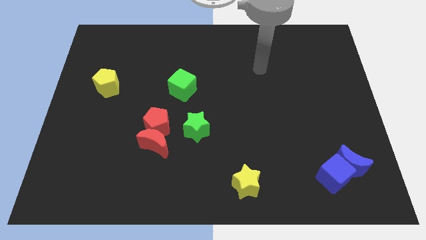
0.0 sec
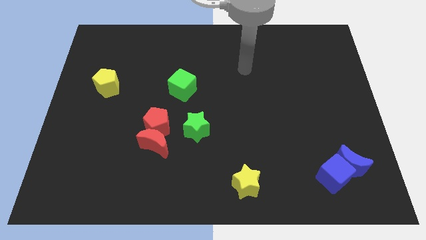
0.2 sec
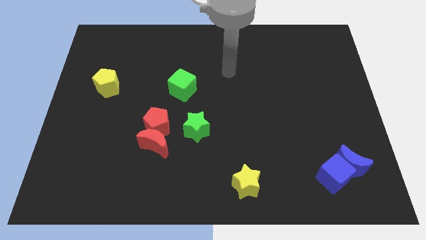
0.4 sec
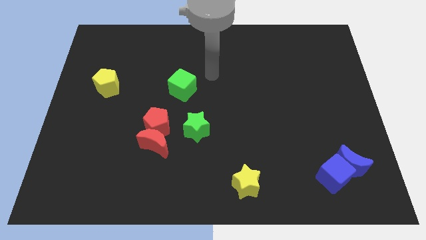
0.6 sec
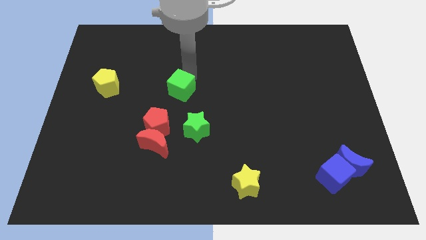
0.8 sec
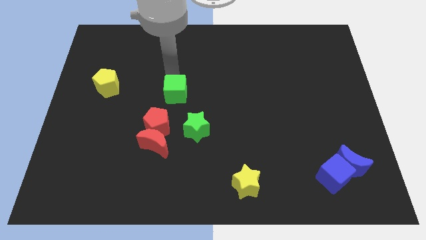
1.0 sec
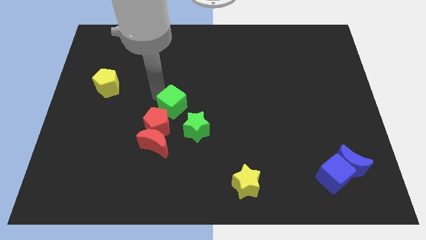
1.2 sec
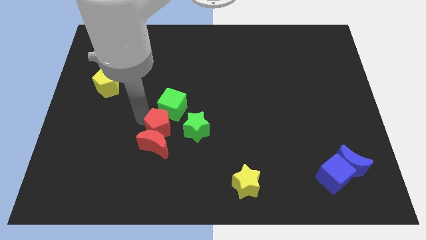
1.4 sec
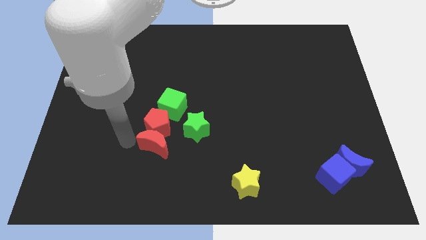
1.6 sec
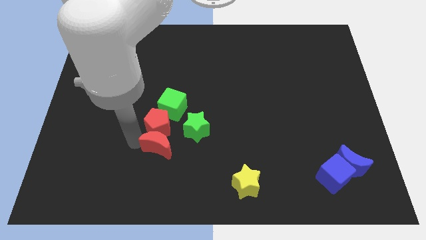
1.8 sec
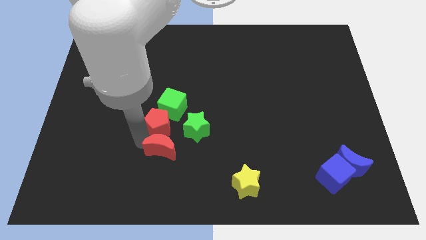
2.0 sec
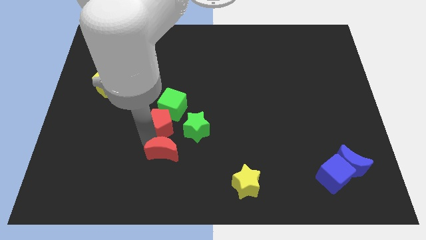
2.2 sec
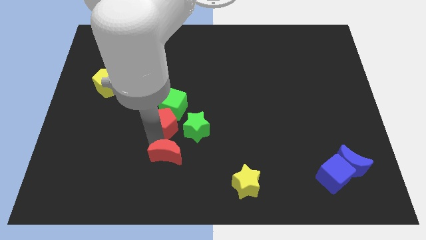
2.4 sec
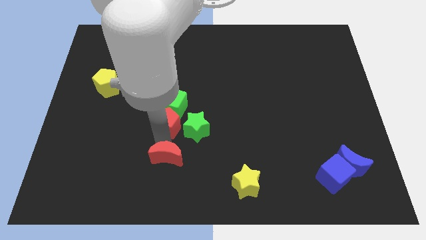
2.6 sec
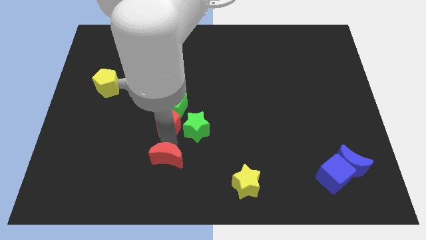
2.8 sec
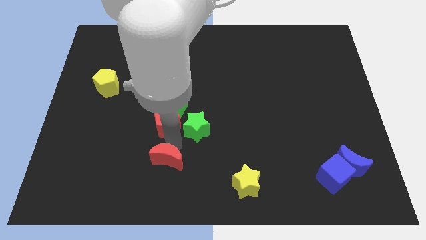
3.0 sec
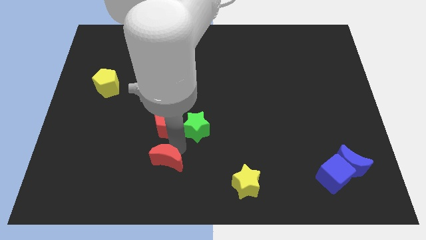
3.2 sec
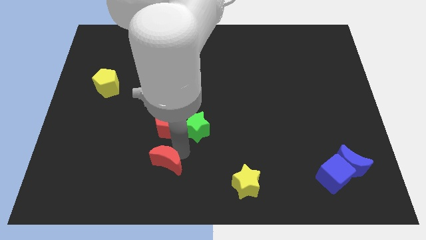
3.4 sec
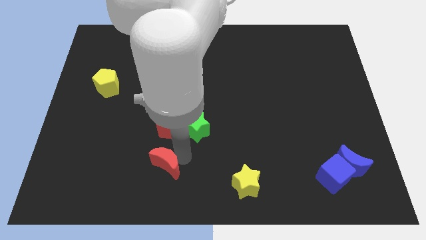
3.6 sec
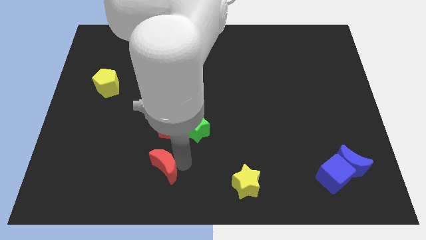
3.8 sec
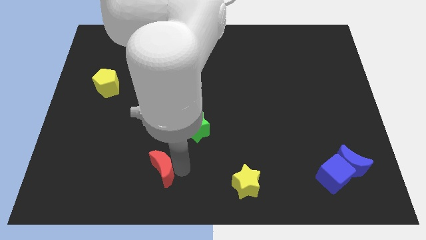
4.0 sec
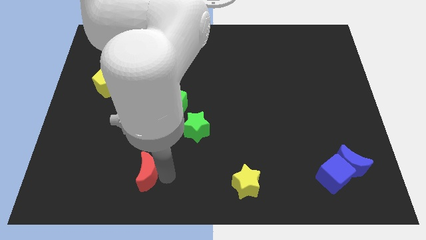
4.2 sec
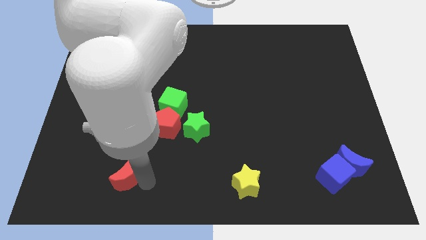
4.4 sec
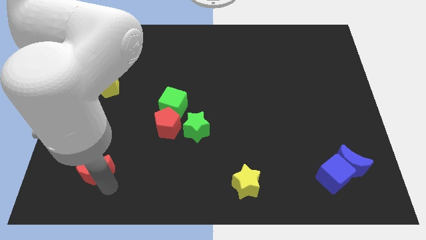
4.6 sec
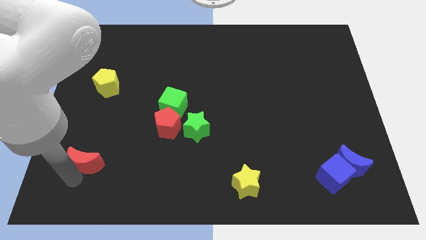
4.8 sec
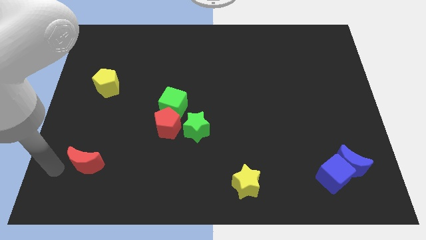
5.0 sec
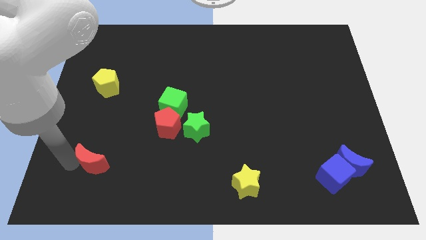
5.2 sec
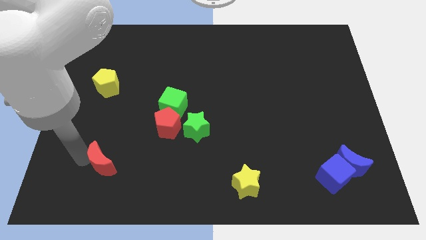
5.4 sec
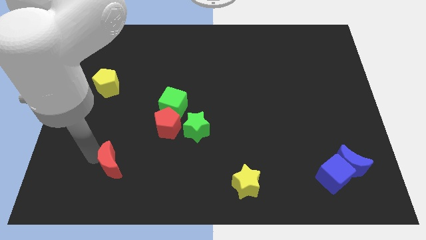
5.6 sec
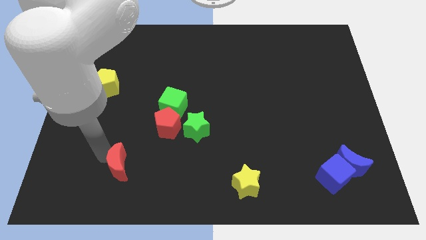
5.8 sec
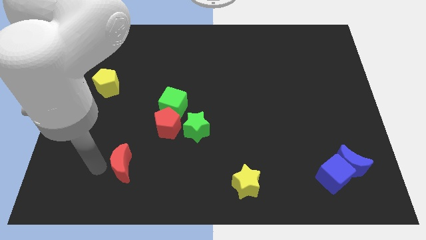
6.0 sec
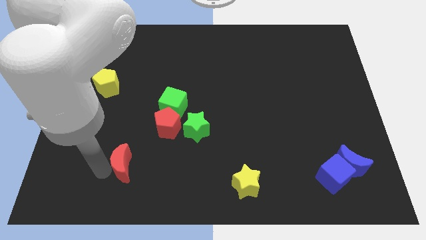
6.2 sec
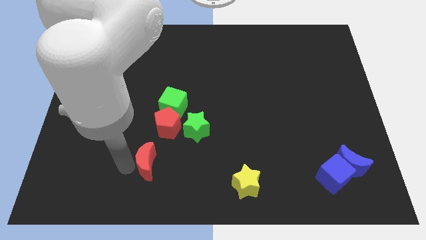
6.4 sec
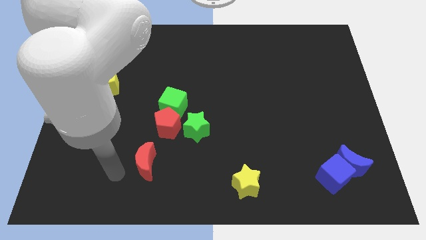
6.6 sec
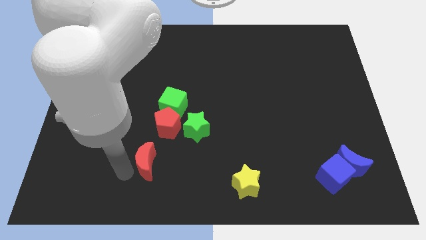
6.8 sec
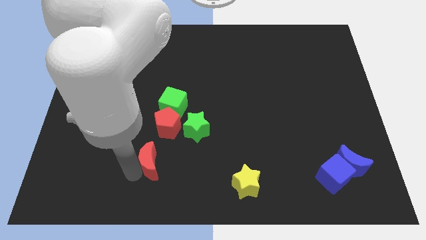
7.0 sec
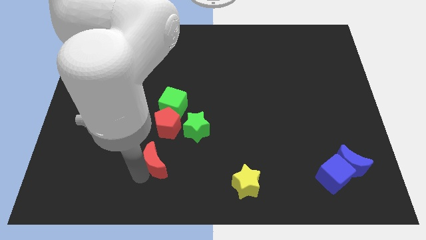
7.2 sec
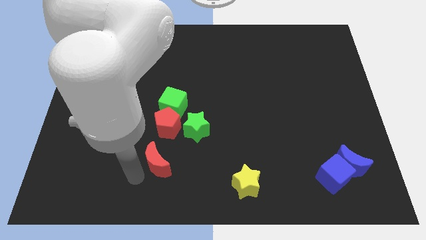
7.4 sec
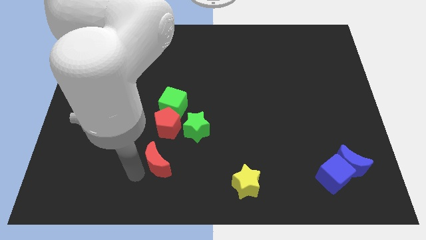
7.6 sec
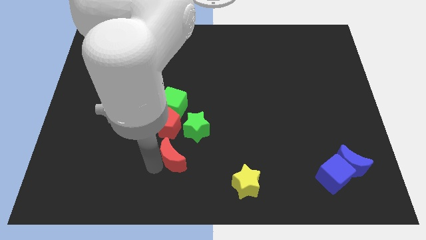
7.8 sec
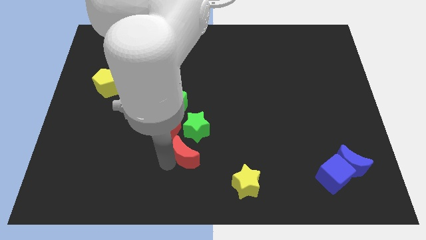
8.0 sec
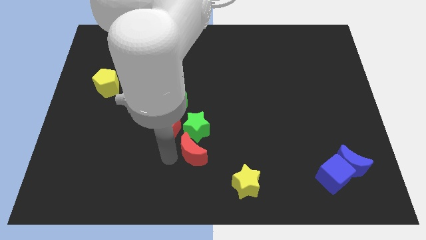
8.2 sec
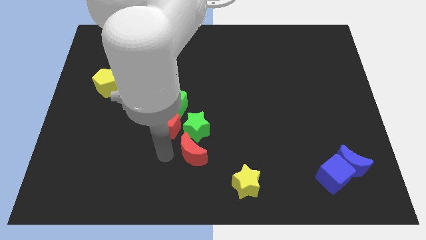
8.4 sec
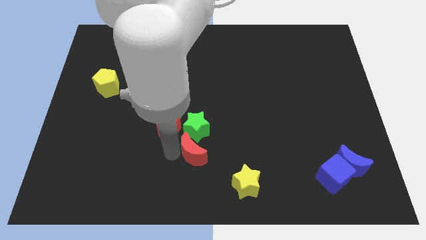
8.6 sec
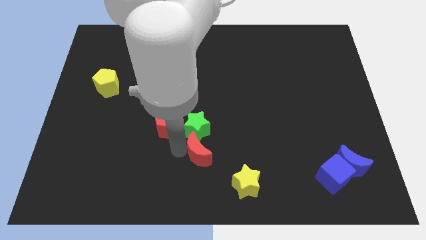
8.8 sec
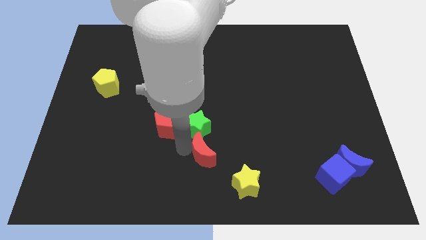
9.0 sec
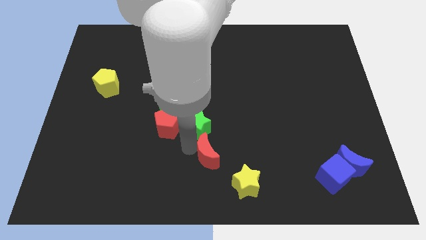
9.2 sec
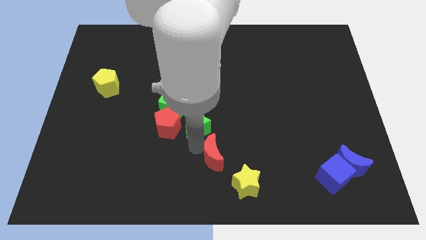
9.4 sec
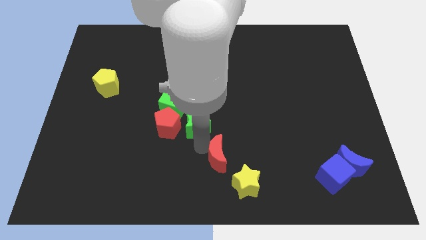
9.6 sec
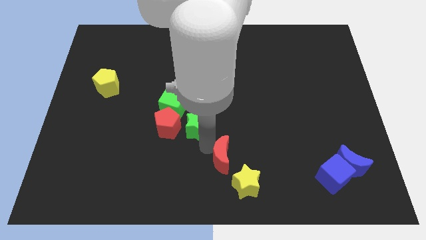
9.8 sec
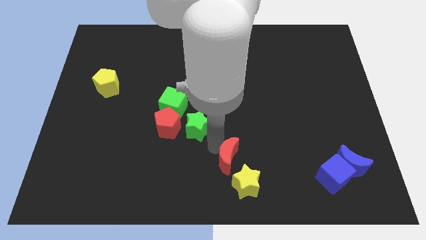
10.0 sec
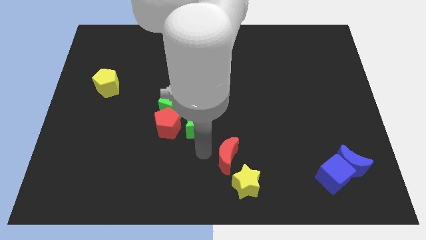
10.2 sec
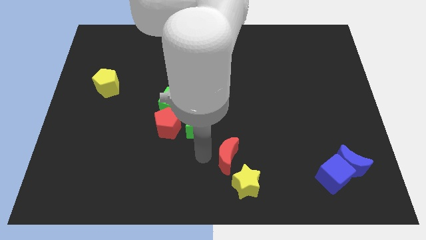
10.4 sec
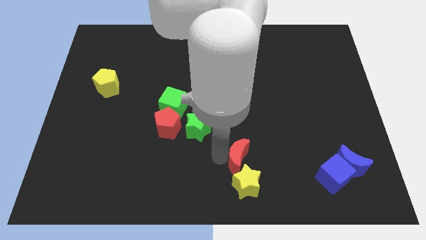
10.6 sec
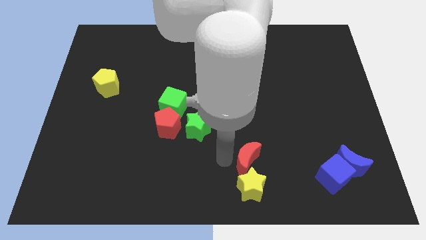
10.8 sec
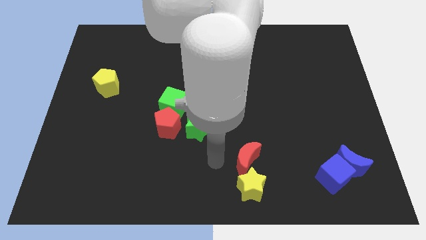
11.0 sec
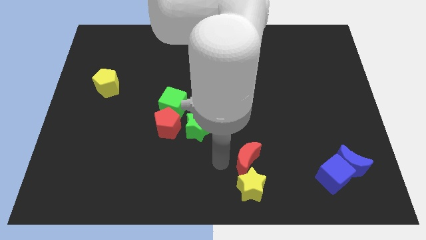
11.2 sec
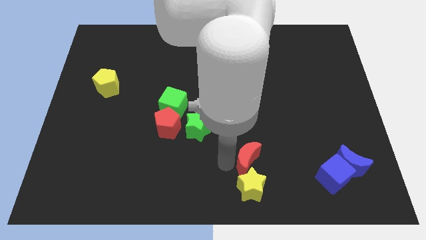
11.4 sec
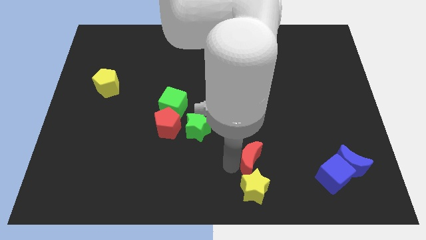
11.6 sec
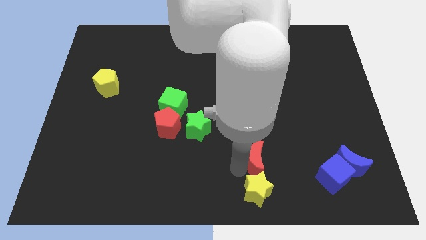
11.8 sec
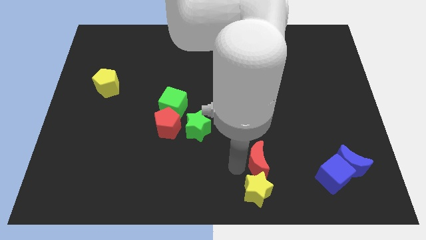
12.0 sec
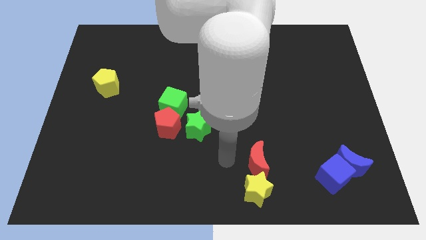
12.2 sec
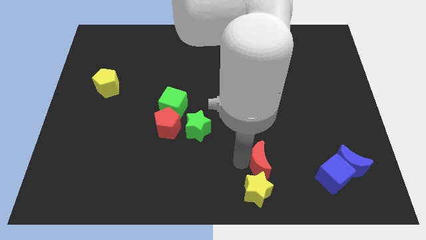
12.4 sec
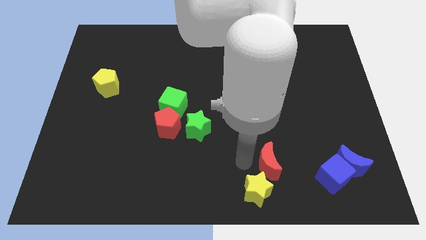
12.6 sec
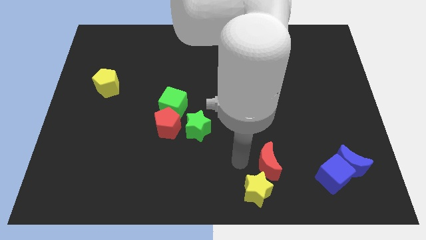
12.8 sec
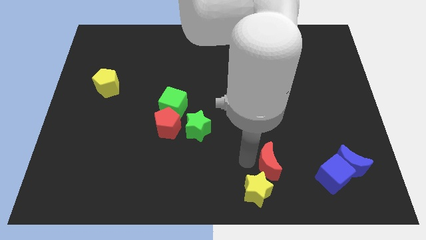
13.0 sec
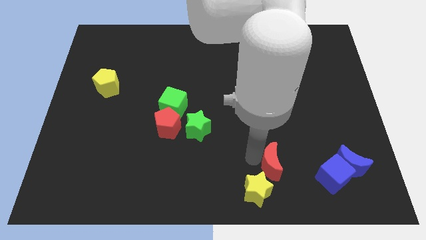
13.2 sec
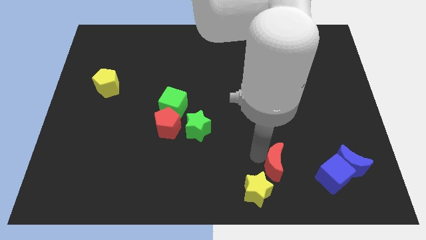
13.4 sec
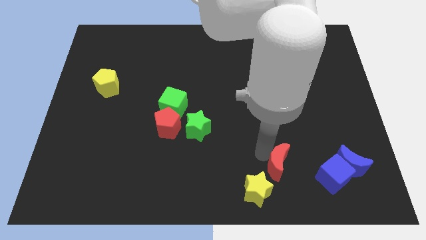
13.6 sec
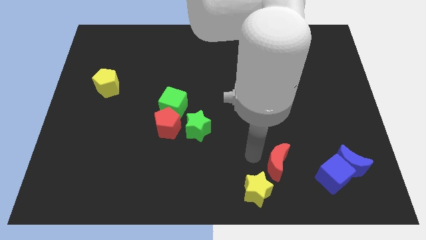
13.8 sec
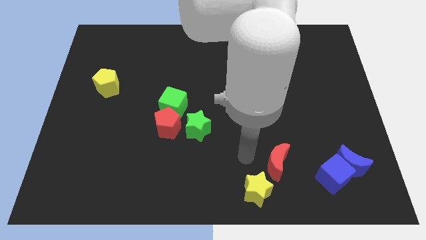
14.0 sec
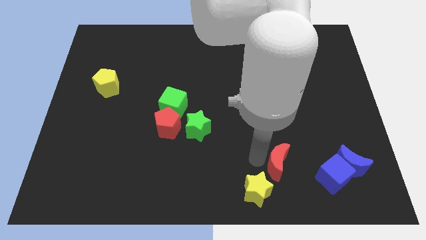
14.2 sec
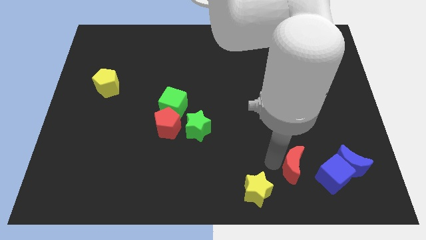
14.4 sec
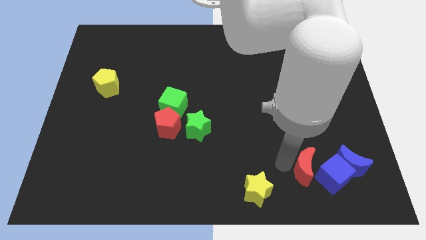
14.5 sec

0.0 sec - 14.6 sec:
slide the red moon to the blue cube

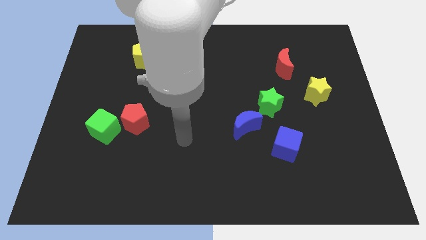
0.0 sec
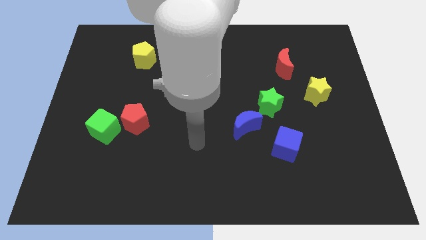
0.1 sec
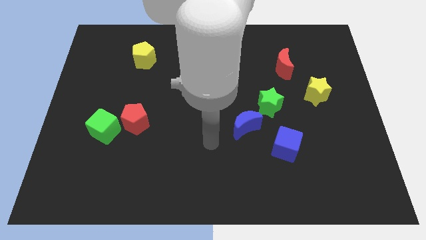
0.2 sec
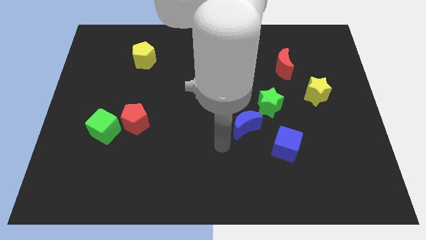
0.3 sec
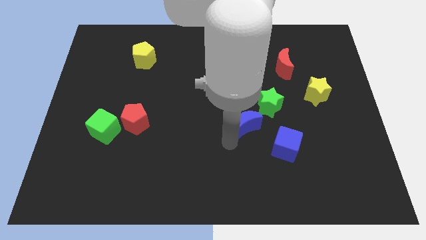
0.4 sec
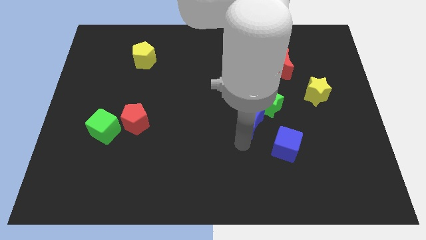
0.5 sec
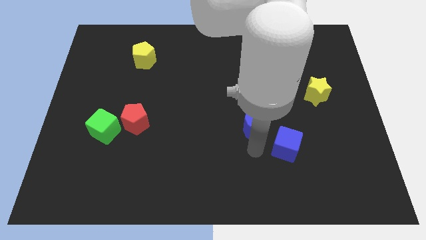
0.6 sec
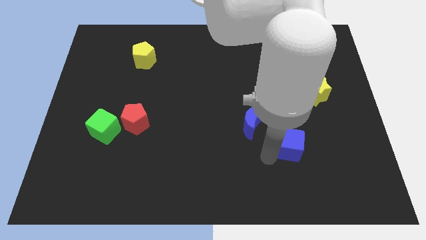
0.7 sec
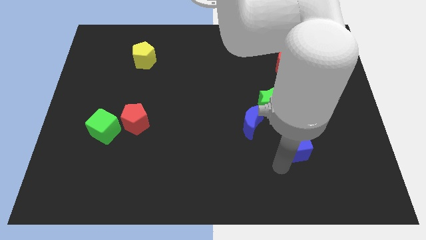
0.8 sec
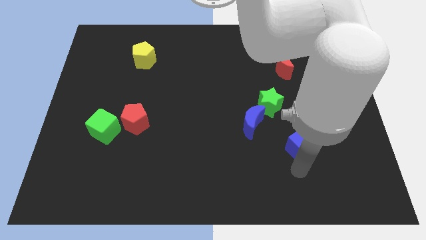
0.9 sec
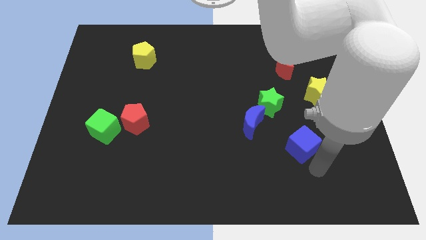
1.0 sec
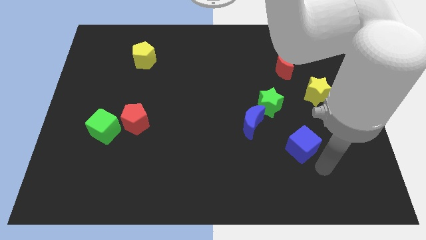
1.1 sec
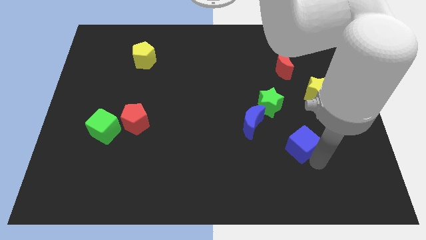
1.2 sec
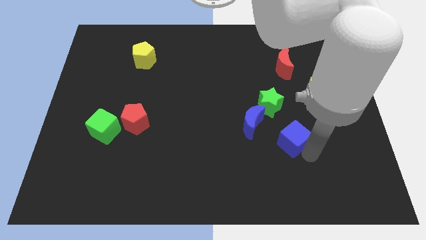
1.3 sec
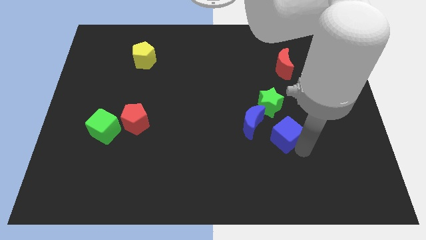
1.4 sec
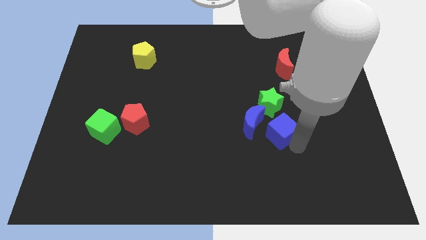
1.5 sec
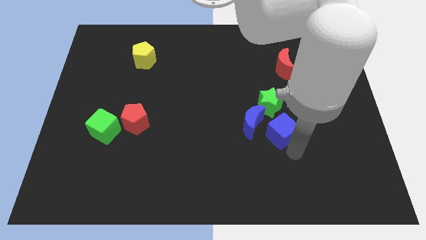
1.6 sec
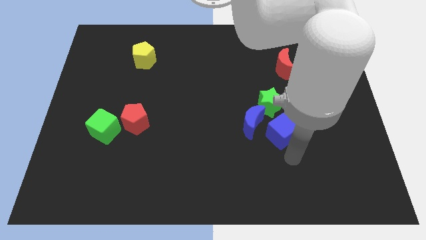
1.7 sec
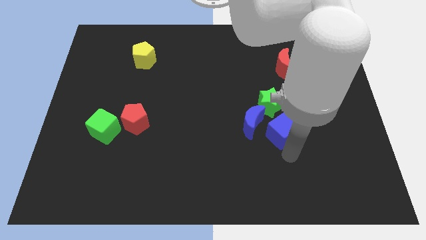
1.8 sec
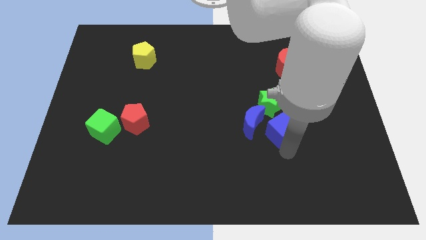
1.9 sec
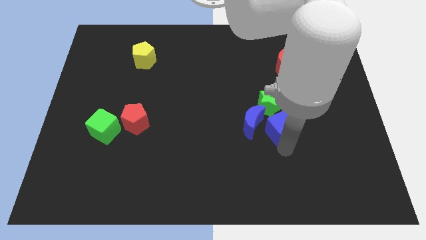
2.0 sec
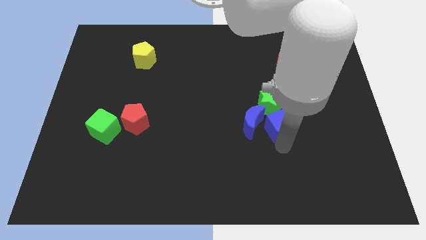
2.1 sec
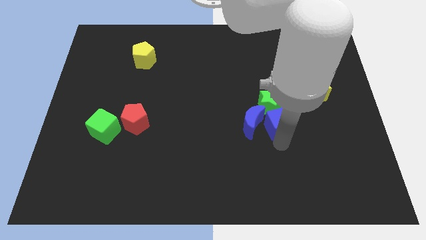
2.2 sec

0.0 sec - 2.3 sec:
put the blue cube towards the green star
